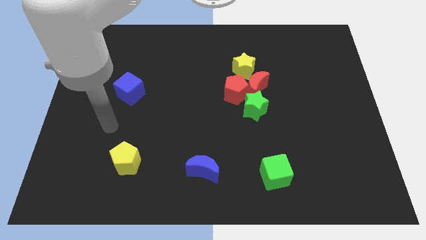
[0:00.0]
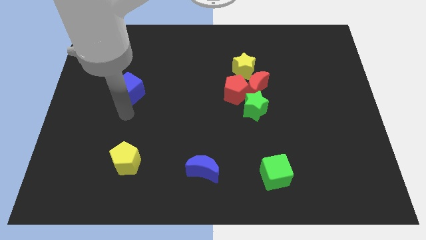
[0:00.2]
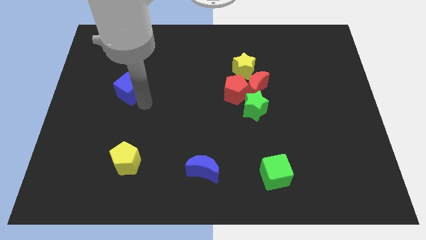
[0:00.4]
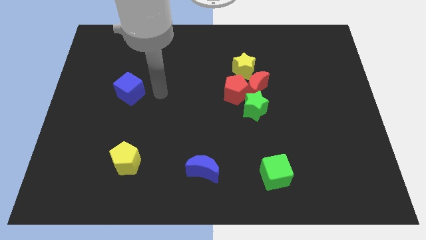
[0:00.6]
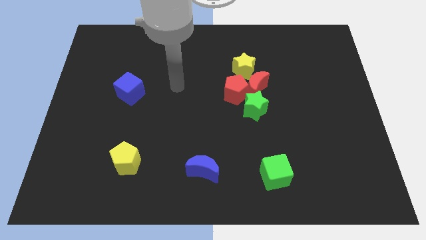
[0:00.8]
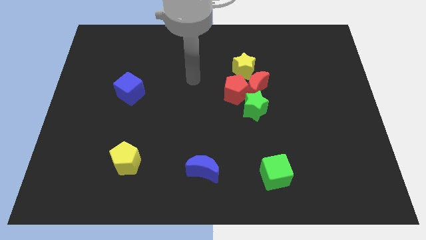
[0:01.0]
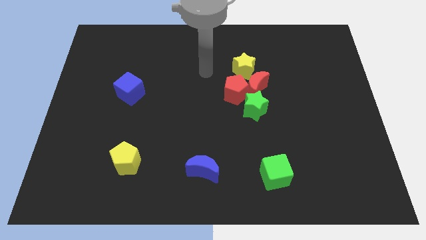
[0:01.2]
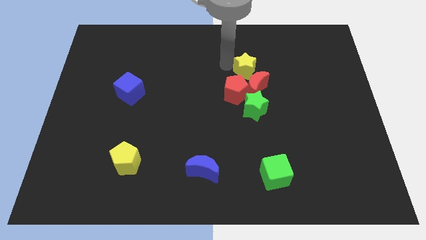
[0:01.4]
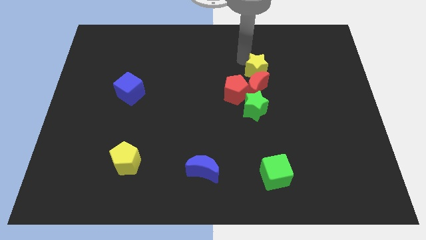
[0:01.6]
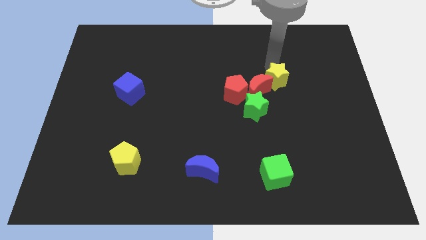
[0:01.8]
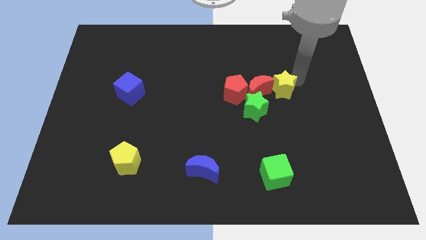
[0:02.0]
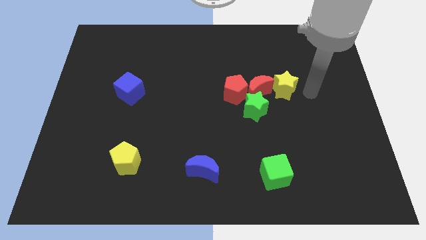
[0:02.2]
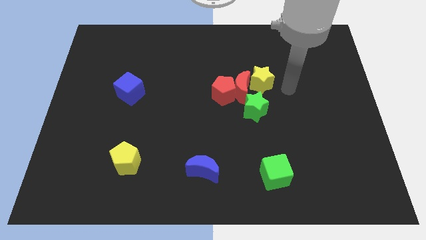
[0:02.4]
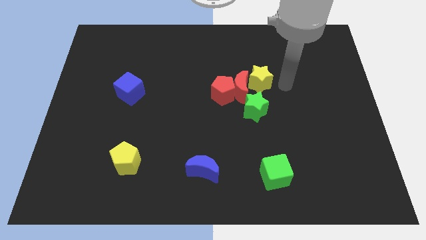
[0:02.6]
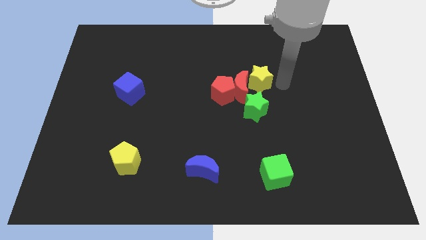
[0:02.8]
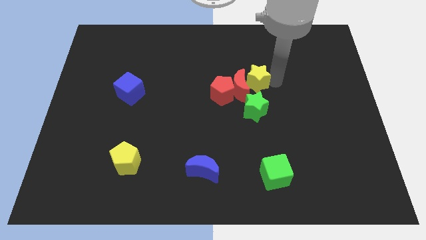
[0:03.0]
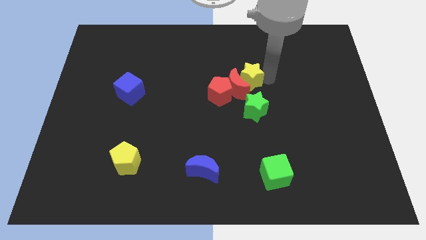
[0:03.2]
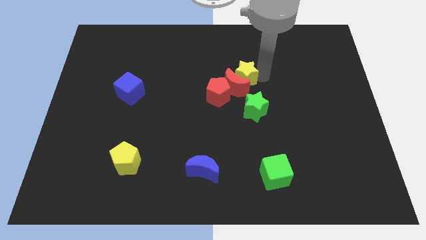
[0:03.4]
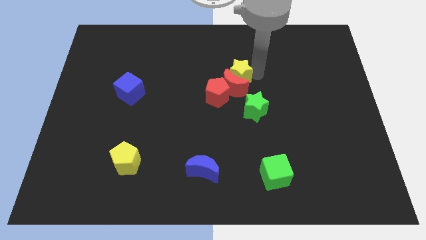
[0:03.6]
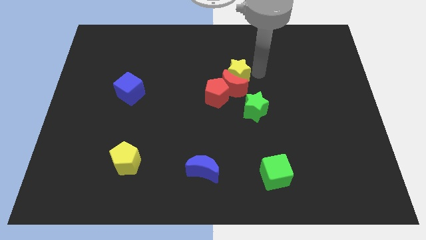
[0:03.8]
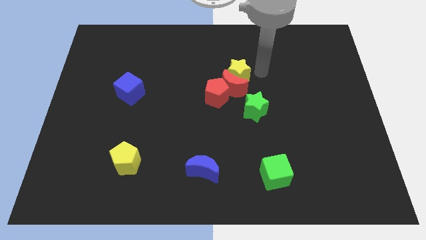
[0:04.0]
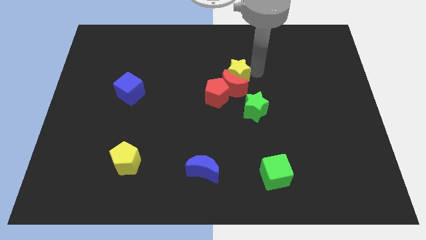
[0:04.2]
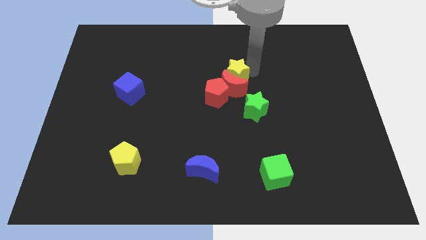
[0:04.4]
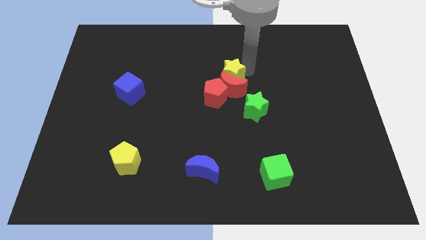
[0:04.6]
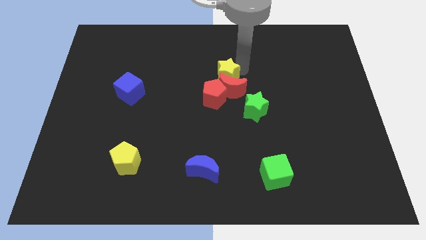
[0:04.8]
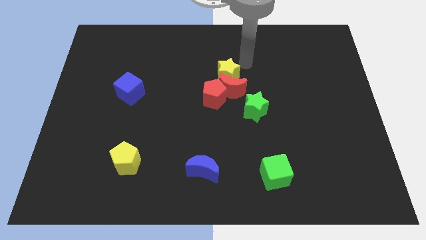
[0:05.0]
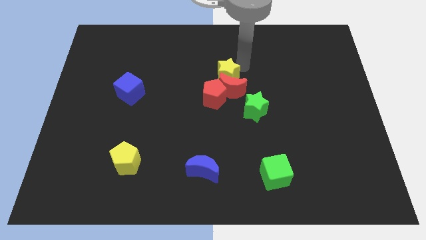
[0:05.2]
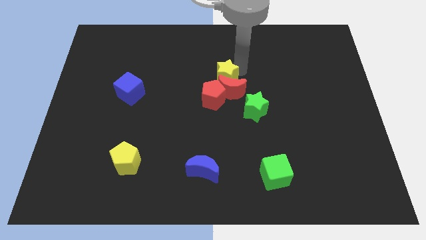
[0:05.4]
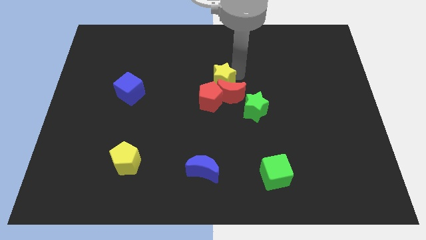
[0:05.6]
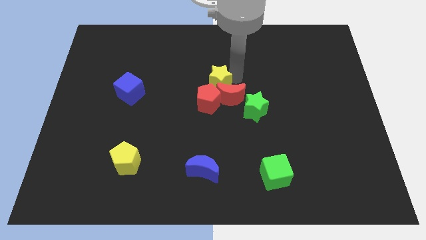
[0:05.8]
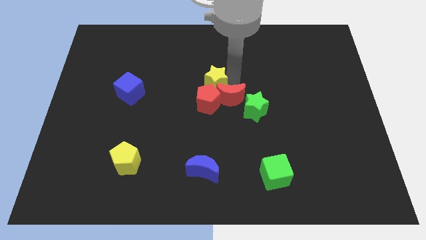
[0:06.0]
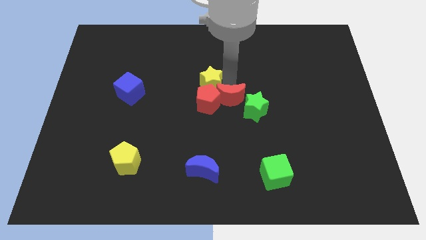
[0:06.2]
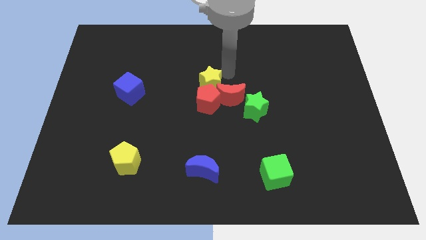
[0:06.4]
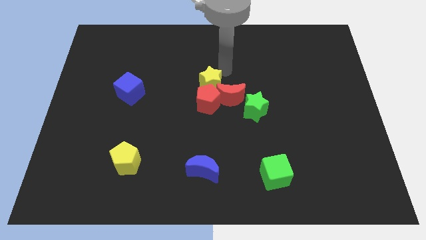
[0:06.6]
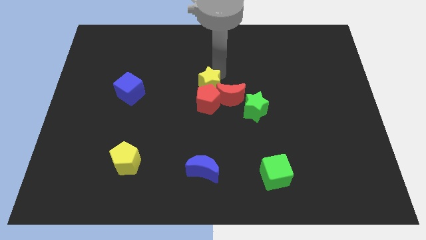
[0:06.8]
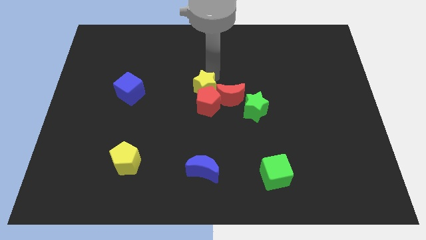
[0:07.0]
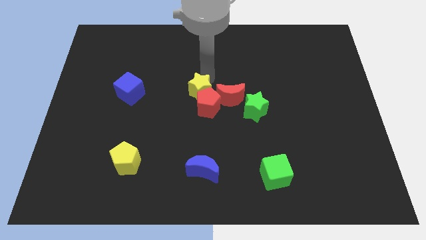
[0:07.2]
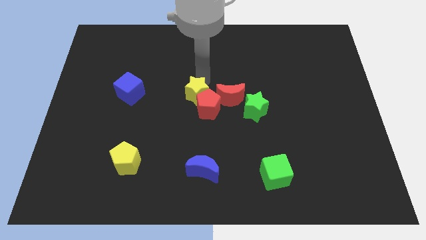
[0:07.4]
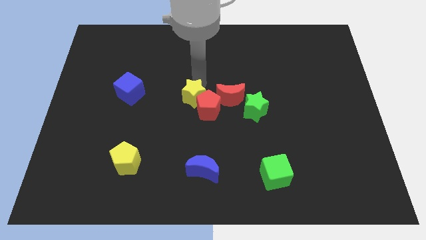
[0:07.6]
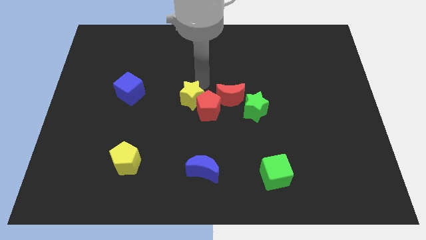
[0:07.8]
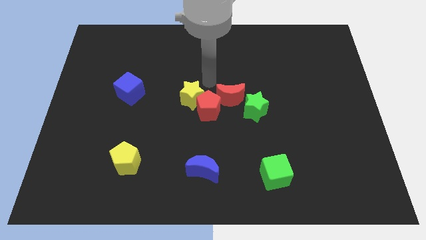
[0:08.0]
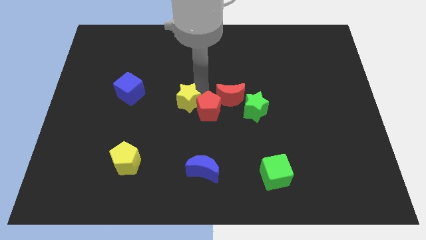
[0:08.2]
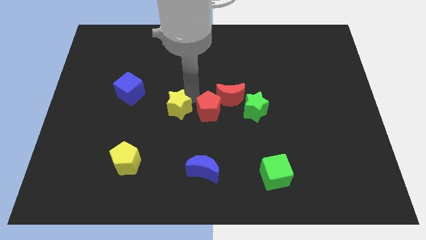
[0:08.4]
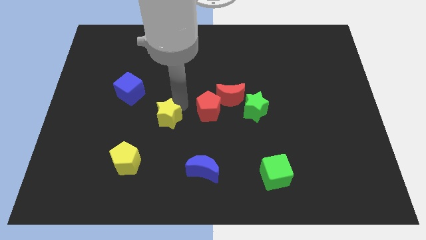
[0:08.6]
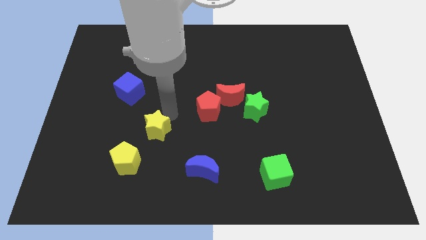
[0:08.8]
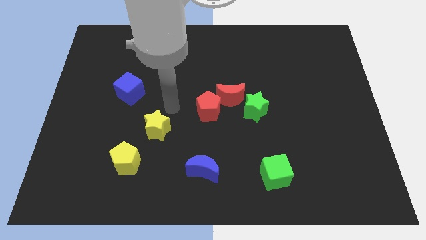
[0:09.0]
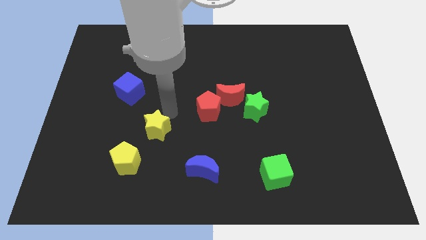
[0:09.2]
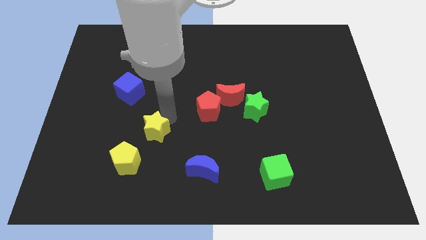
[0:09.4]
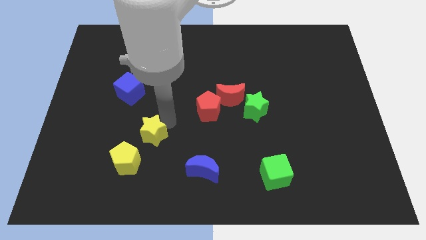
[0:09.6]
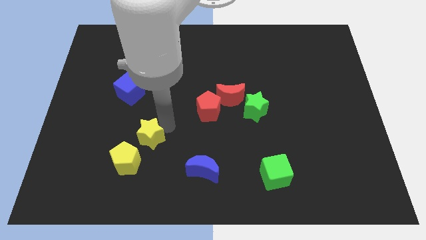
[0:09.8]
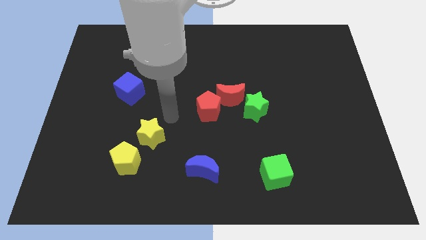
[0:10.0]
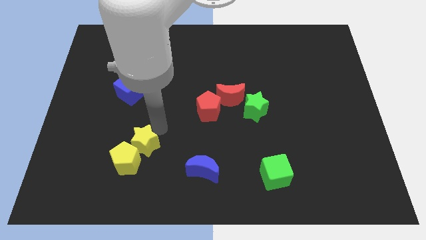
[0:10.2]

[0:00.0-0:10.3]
put the yellow star next to the yellow pentagon
